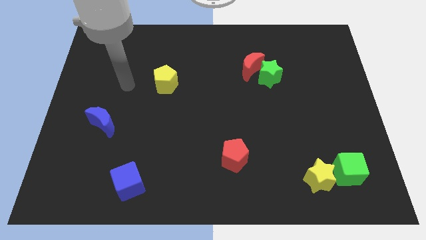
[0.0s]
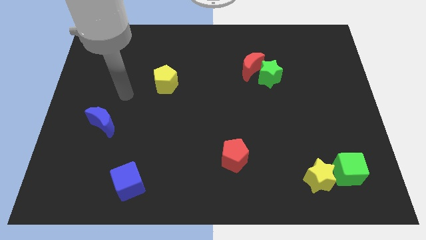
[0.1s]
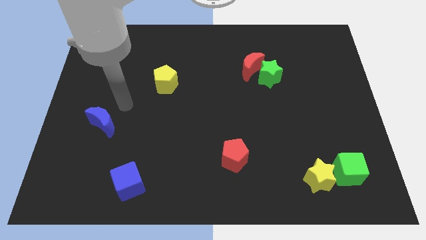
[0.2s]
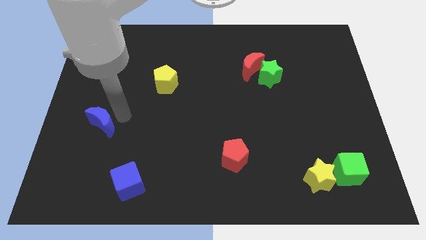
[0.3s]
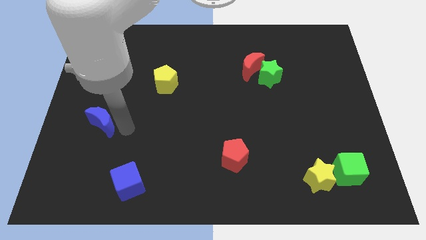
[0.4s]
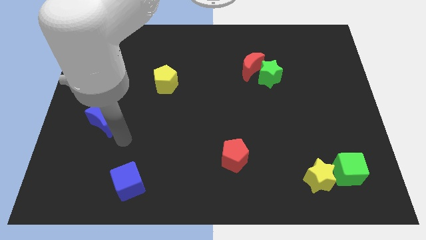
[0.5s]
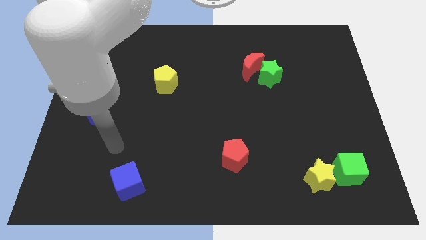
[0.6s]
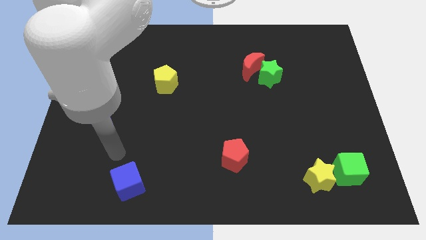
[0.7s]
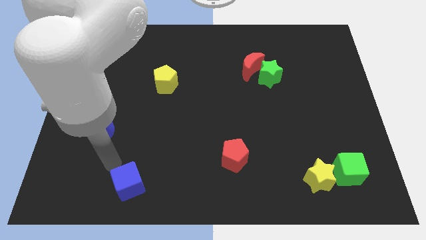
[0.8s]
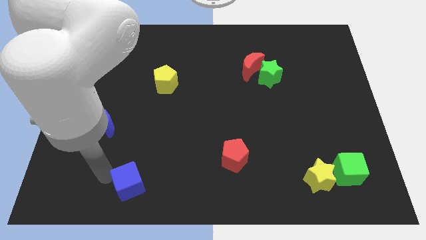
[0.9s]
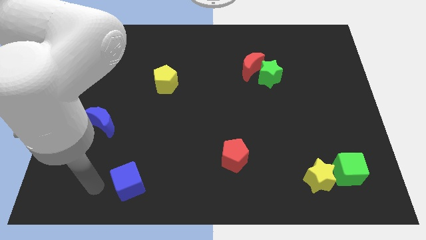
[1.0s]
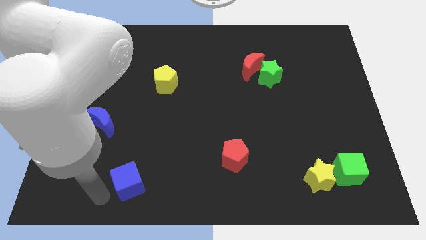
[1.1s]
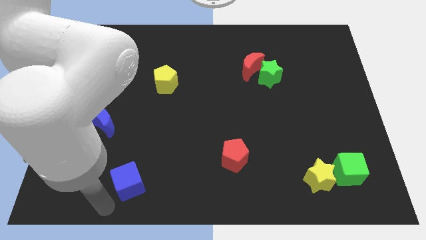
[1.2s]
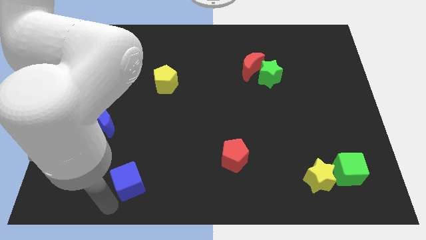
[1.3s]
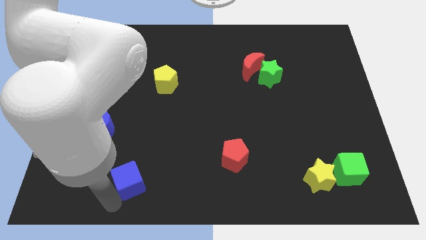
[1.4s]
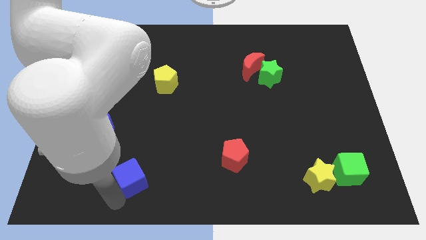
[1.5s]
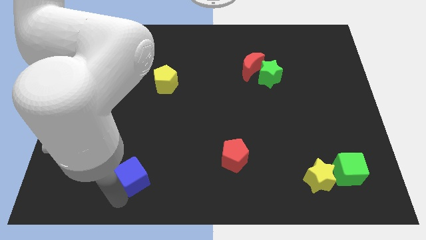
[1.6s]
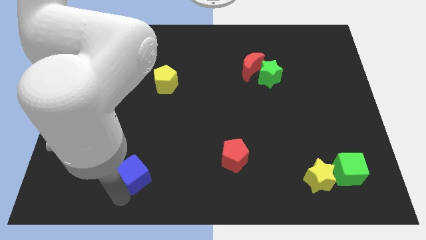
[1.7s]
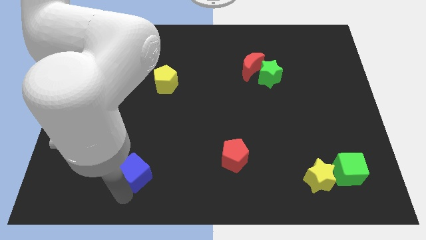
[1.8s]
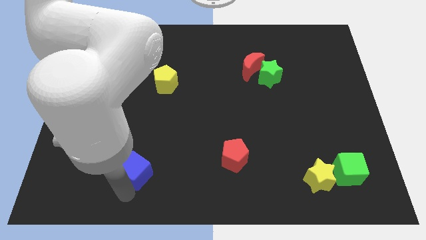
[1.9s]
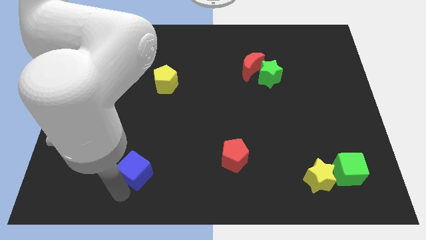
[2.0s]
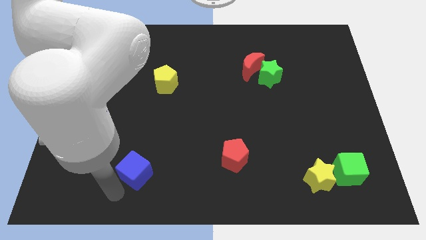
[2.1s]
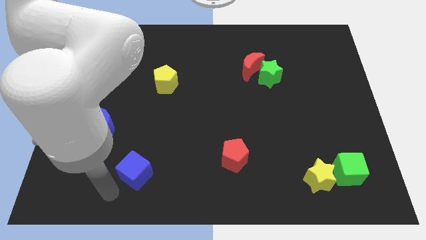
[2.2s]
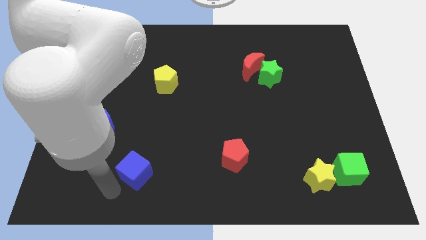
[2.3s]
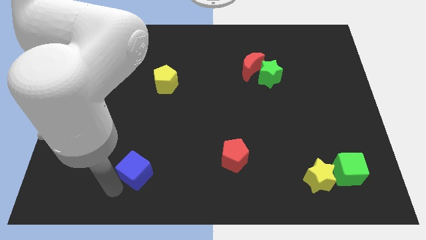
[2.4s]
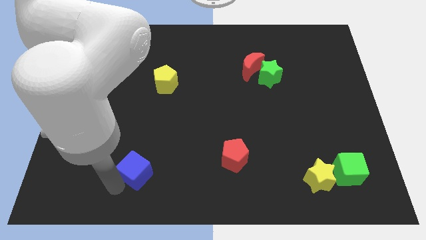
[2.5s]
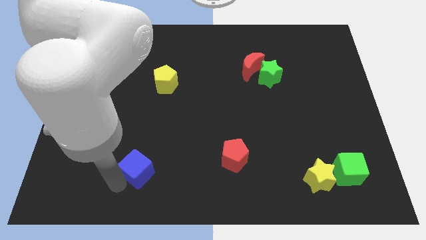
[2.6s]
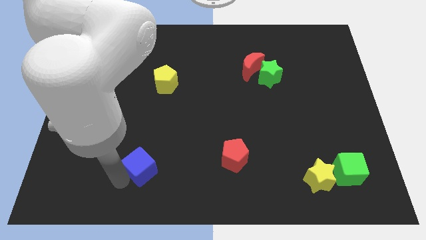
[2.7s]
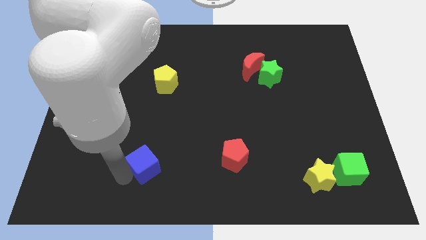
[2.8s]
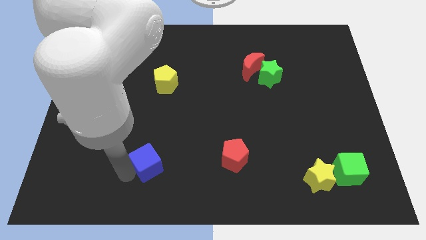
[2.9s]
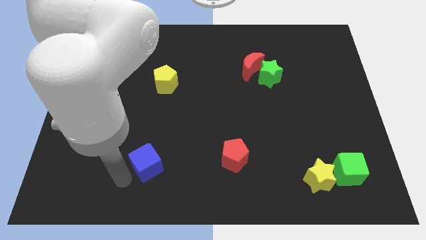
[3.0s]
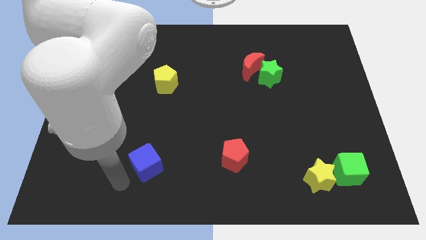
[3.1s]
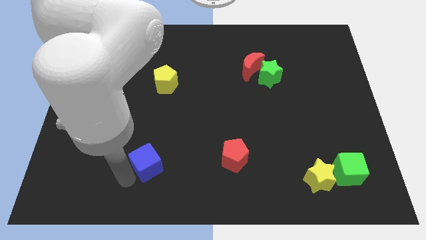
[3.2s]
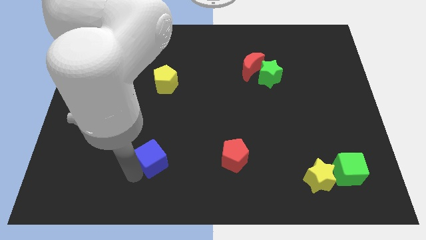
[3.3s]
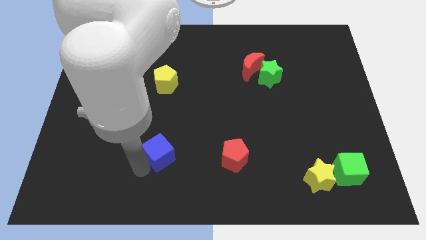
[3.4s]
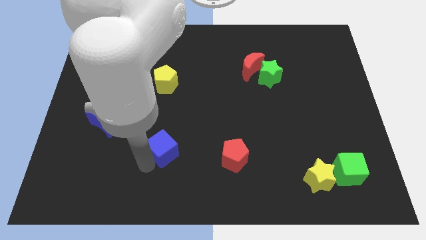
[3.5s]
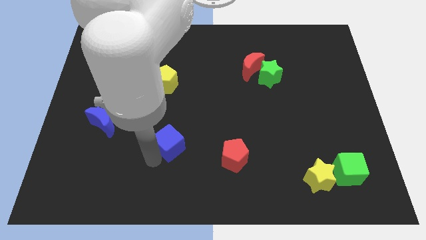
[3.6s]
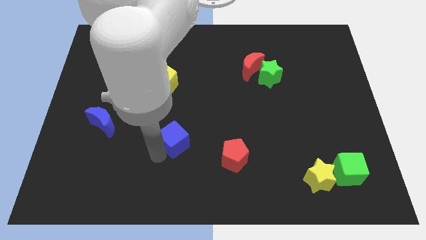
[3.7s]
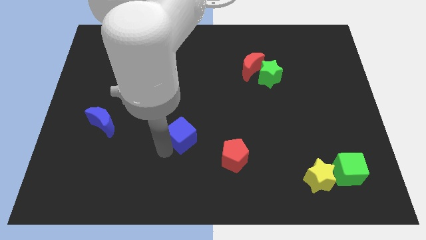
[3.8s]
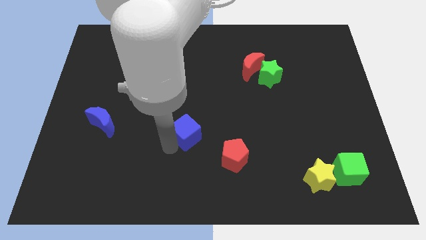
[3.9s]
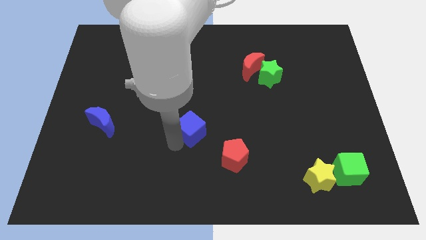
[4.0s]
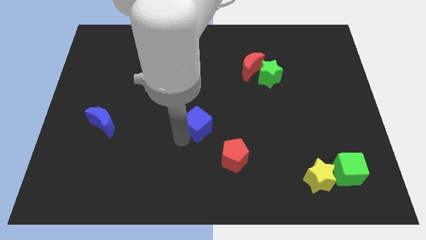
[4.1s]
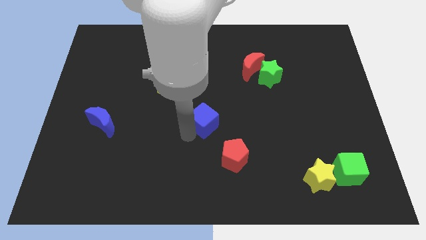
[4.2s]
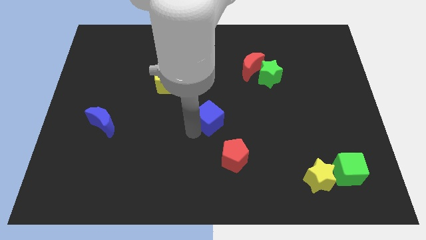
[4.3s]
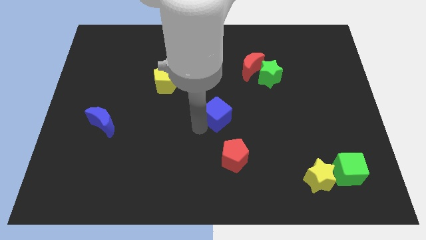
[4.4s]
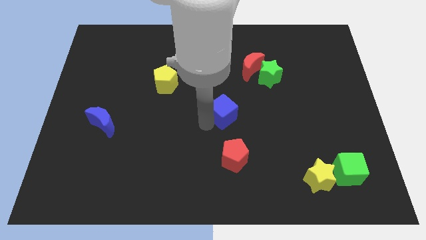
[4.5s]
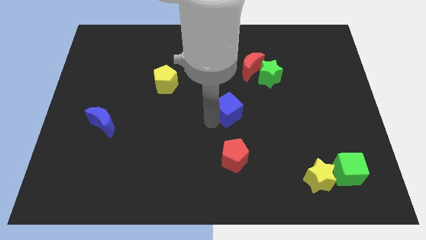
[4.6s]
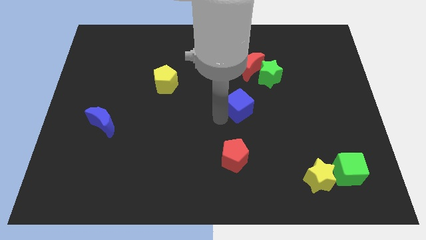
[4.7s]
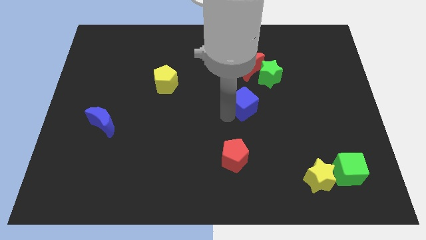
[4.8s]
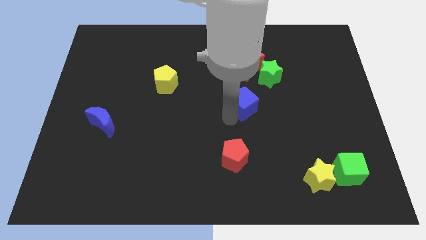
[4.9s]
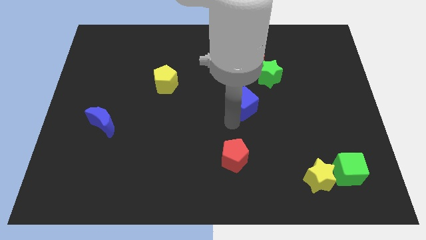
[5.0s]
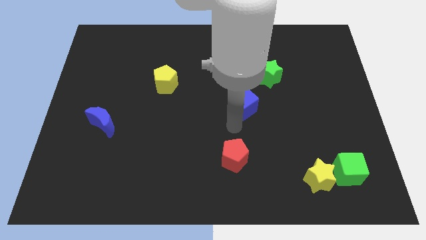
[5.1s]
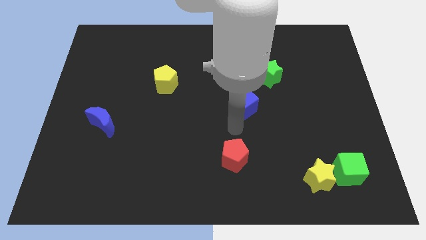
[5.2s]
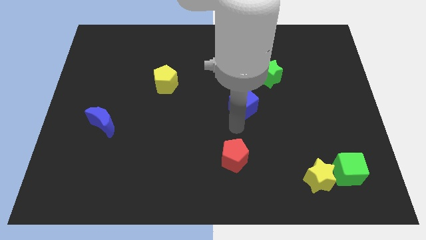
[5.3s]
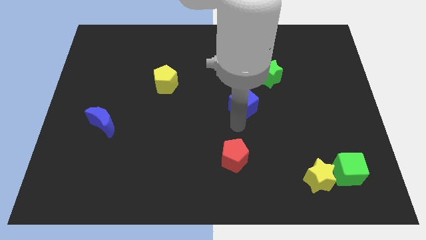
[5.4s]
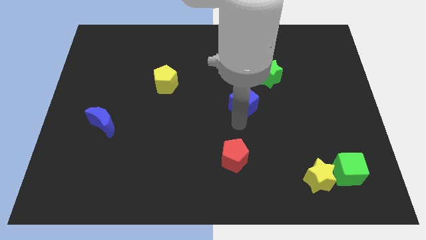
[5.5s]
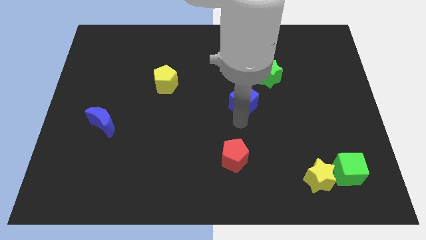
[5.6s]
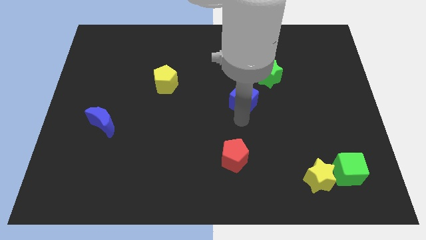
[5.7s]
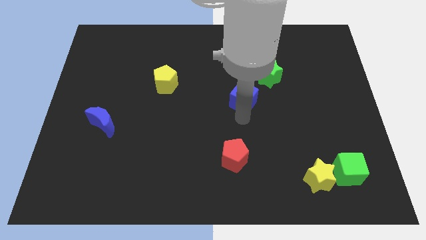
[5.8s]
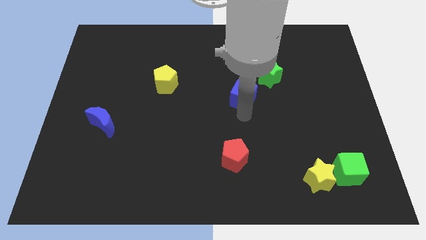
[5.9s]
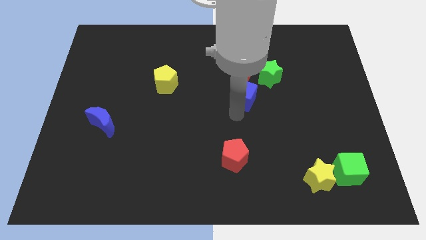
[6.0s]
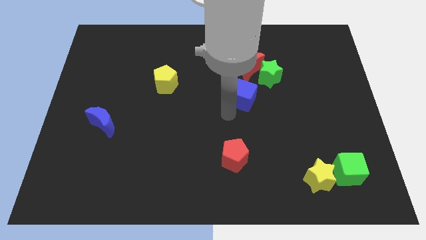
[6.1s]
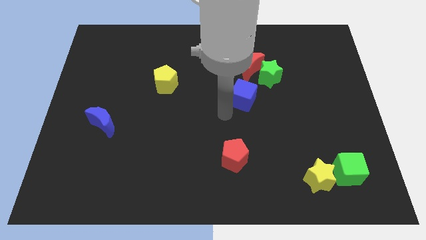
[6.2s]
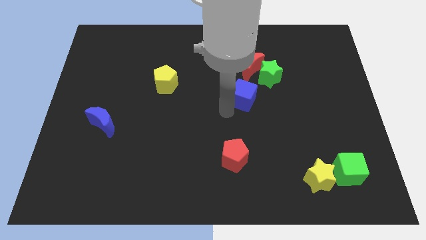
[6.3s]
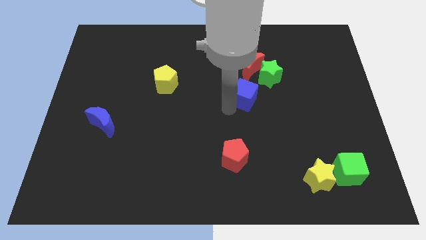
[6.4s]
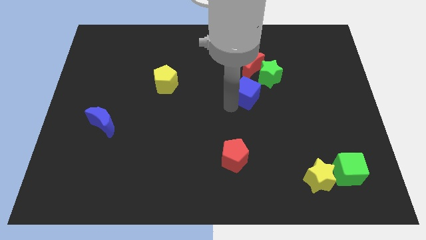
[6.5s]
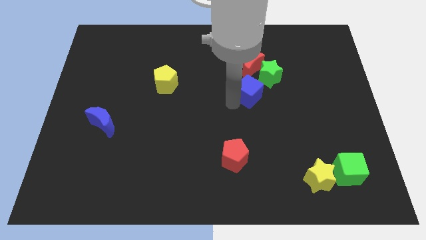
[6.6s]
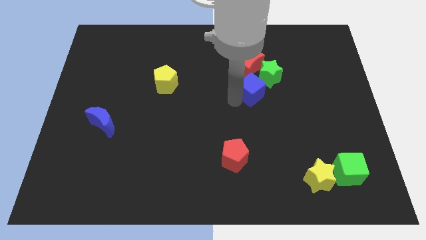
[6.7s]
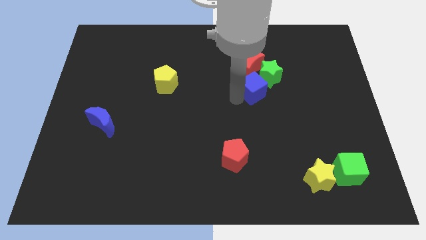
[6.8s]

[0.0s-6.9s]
push the blue cube towards the green star

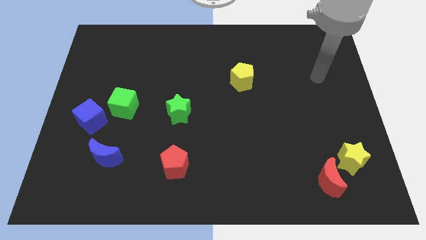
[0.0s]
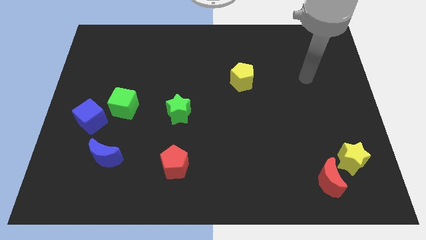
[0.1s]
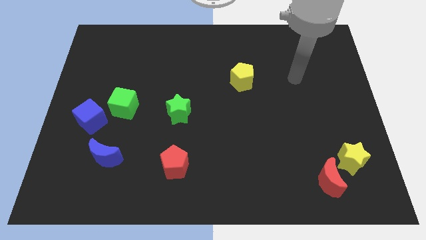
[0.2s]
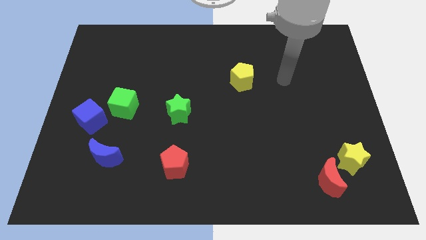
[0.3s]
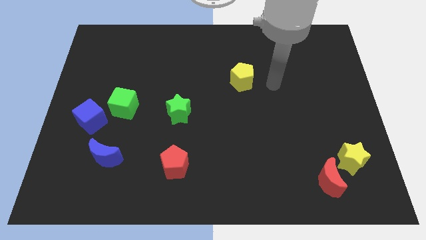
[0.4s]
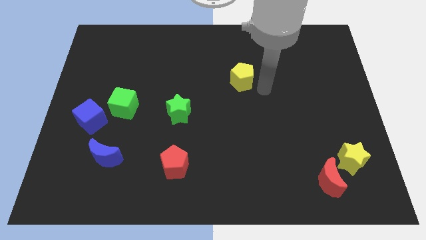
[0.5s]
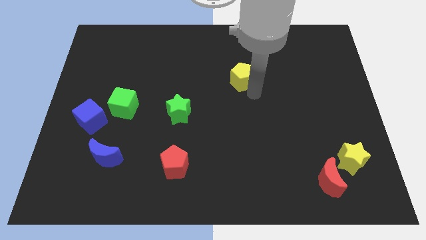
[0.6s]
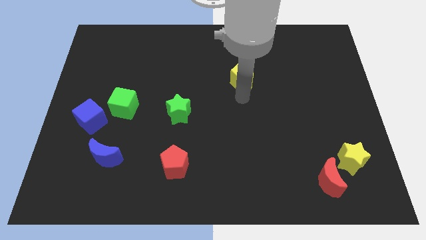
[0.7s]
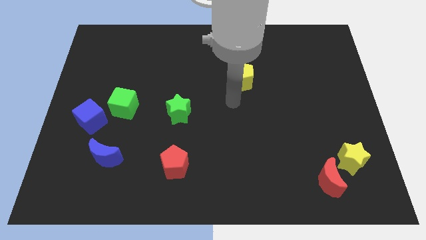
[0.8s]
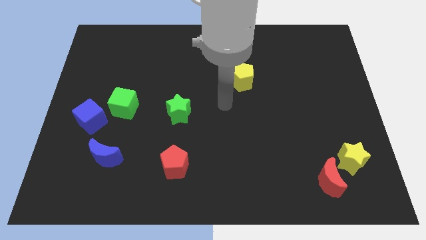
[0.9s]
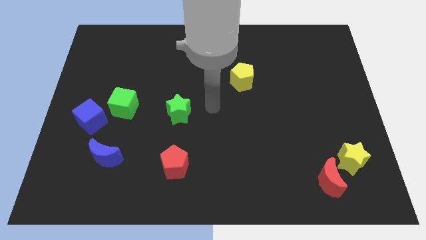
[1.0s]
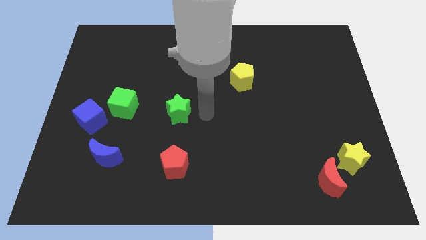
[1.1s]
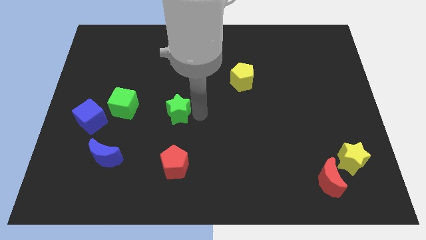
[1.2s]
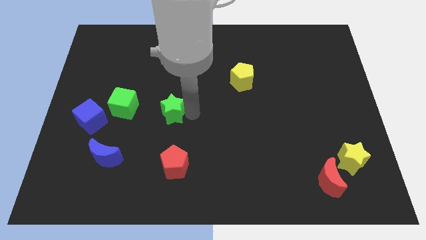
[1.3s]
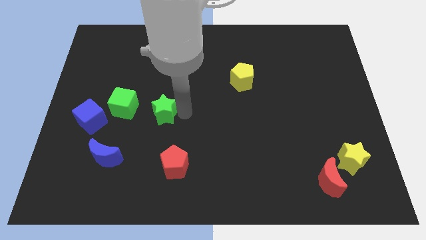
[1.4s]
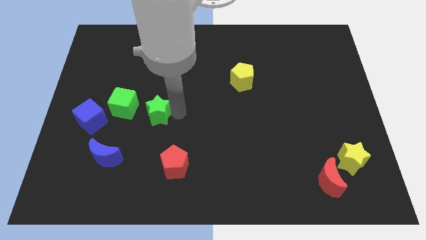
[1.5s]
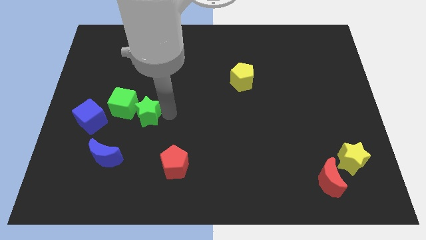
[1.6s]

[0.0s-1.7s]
move the green star towards the green cube
